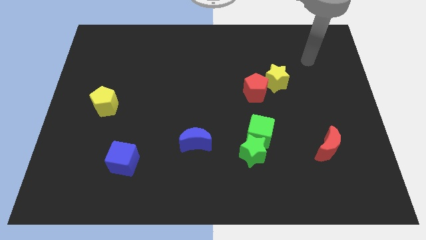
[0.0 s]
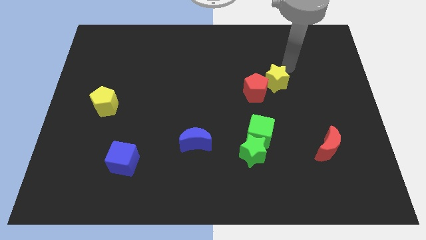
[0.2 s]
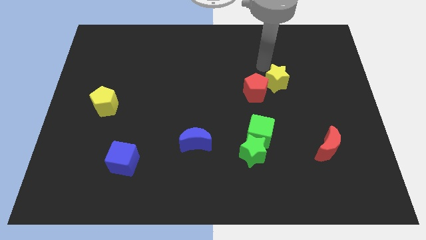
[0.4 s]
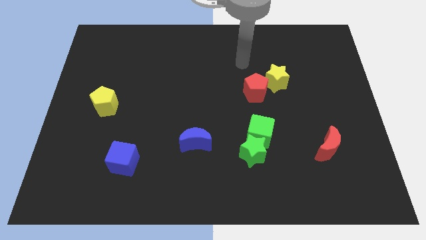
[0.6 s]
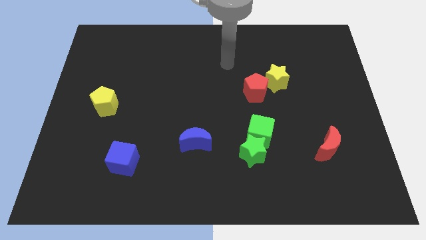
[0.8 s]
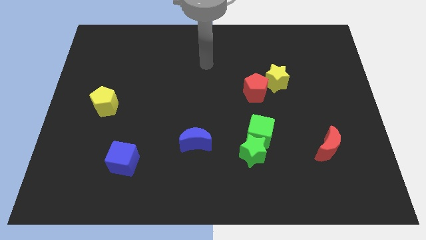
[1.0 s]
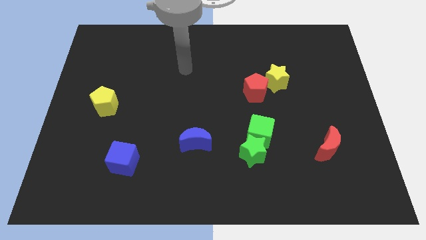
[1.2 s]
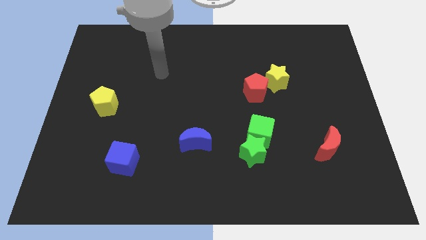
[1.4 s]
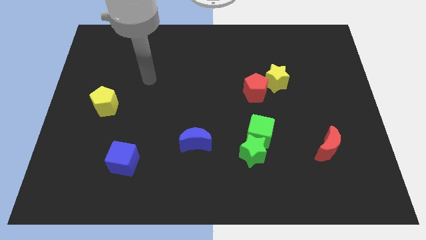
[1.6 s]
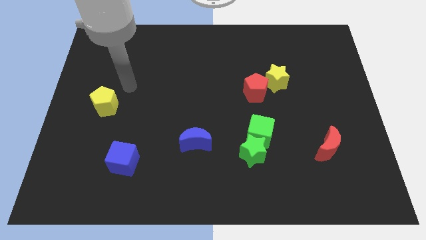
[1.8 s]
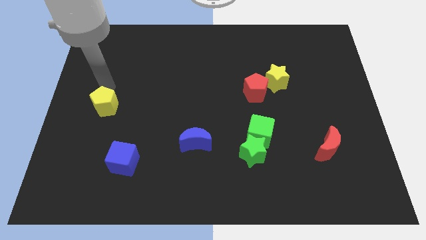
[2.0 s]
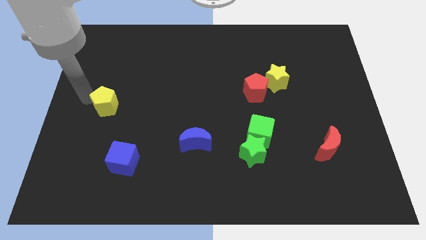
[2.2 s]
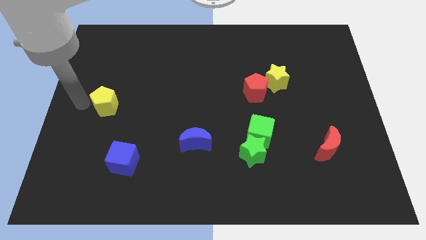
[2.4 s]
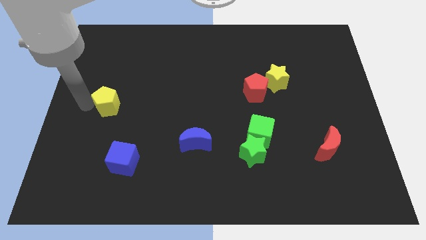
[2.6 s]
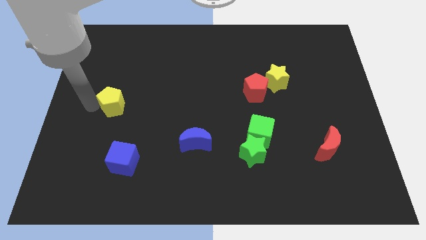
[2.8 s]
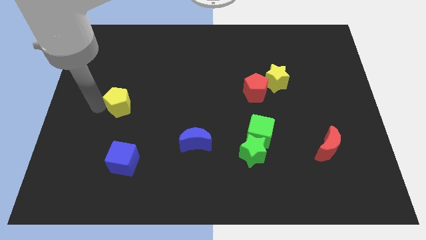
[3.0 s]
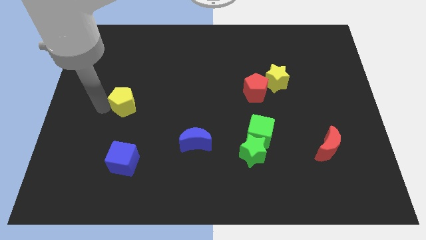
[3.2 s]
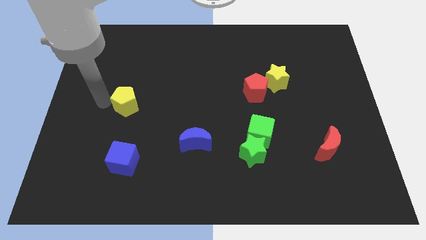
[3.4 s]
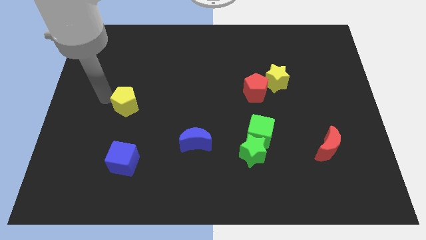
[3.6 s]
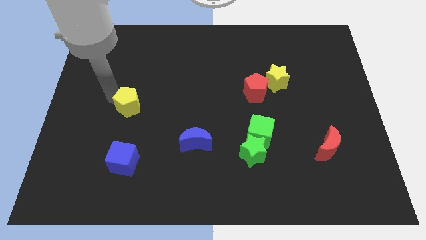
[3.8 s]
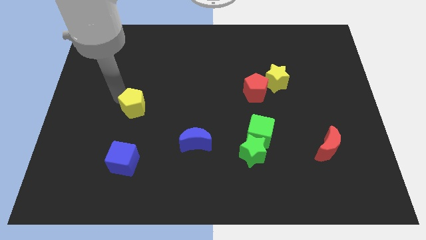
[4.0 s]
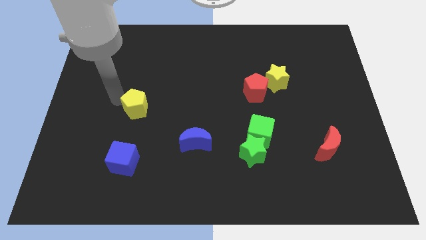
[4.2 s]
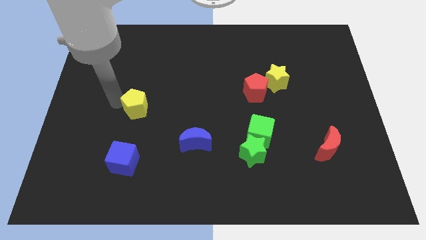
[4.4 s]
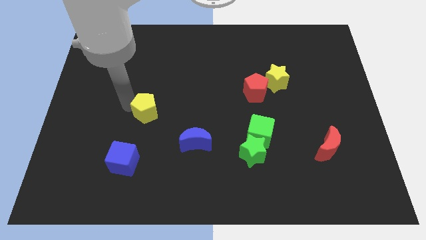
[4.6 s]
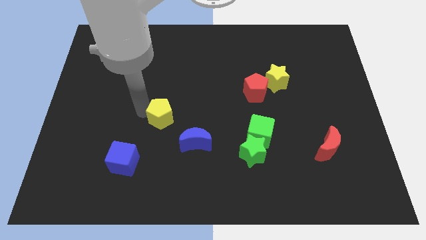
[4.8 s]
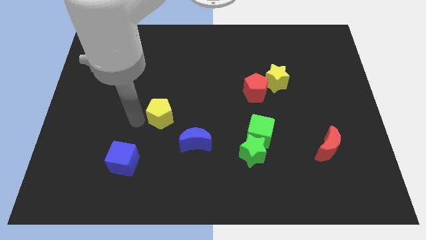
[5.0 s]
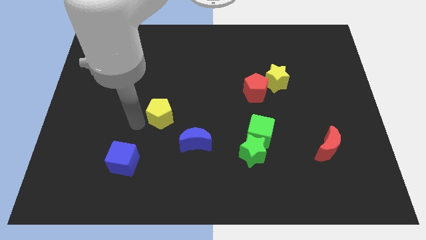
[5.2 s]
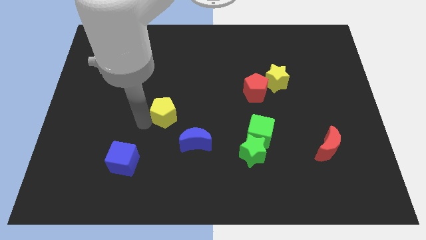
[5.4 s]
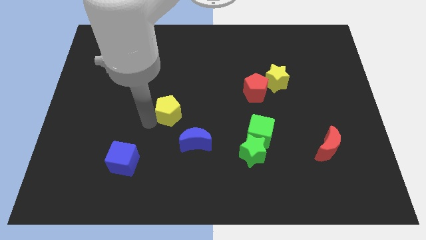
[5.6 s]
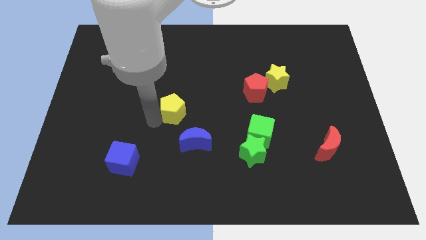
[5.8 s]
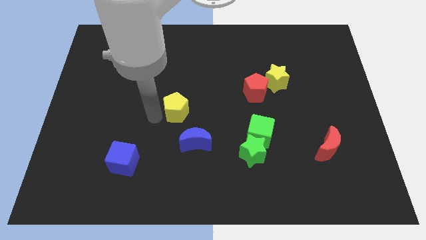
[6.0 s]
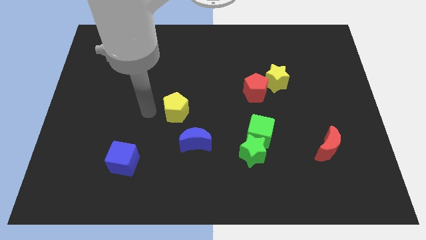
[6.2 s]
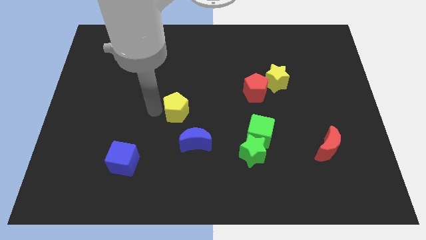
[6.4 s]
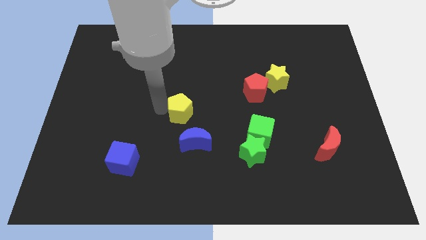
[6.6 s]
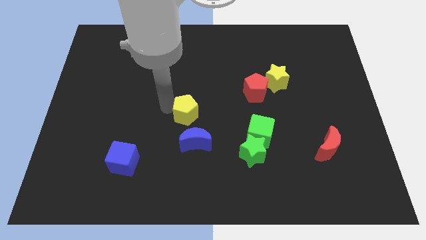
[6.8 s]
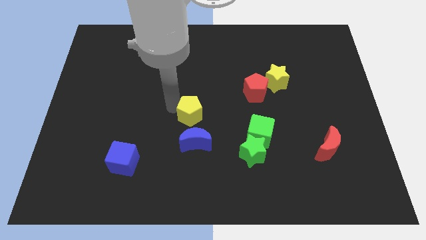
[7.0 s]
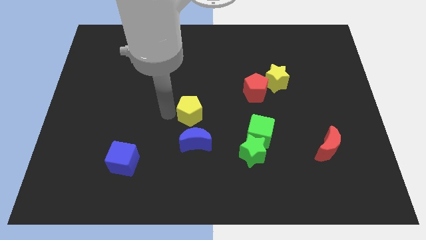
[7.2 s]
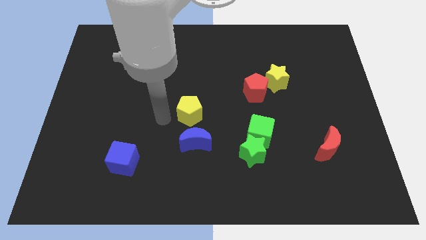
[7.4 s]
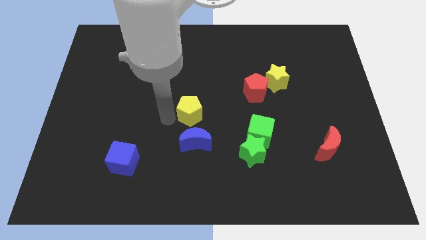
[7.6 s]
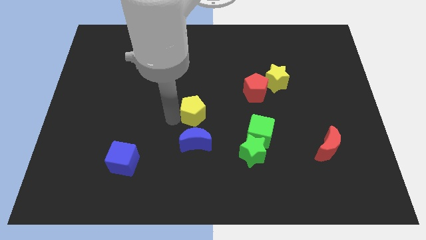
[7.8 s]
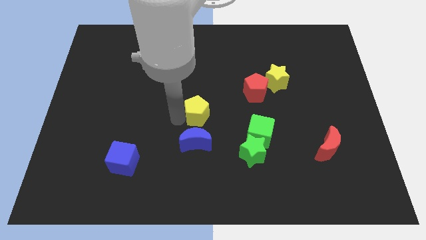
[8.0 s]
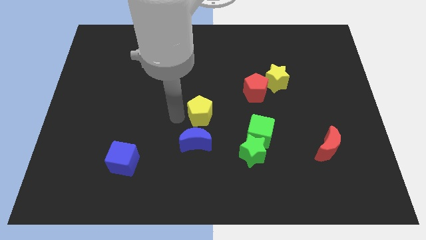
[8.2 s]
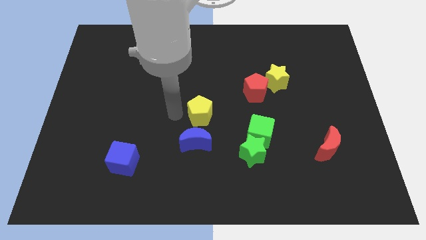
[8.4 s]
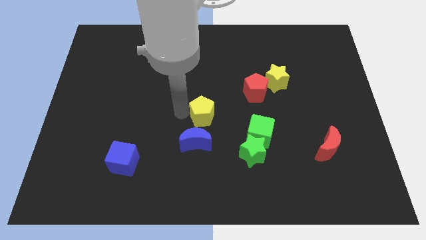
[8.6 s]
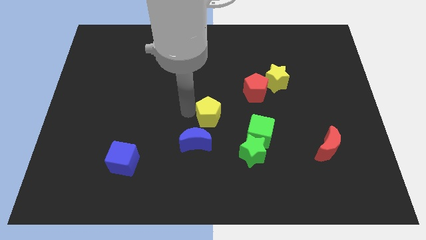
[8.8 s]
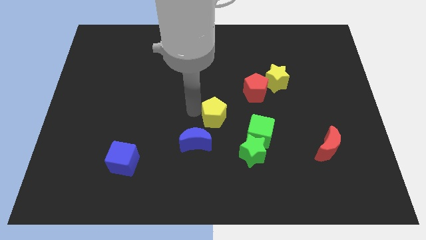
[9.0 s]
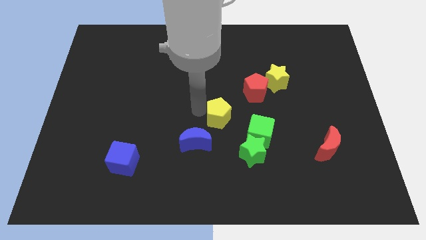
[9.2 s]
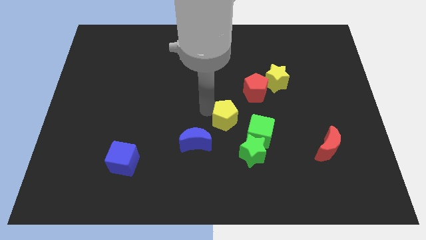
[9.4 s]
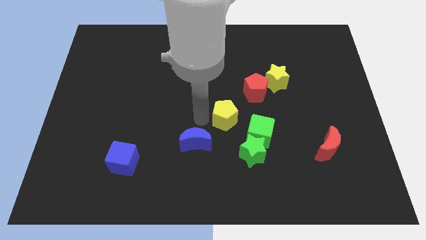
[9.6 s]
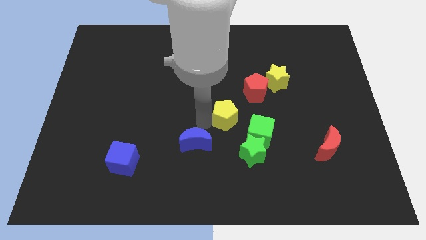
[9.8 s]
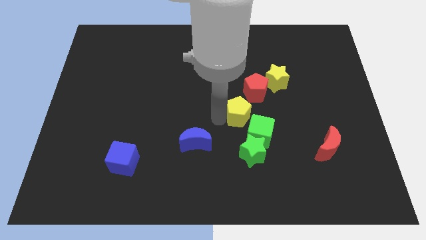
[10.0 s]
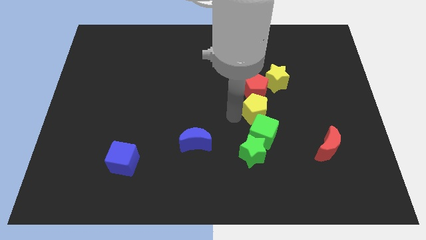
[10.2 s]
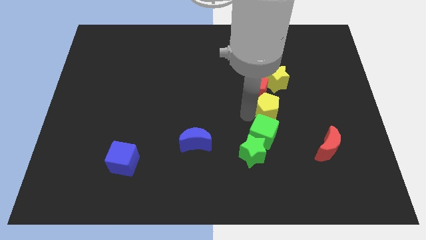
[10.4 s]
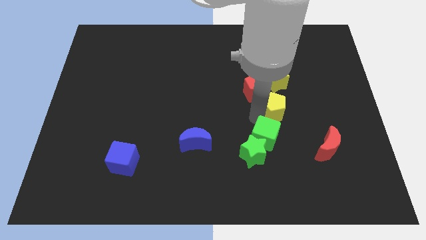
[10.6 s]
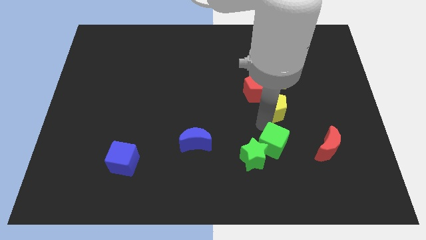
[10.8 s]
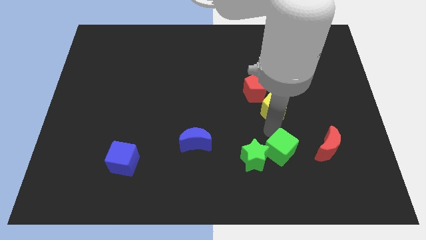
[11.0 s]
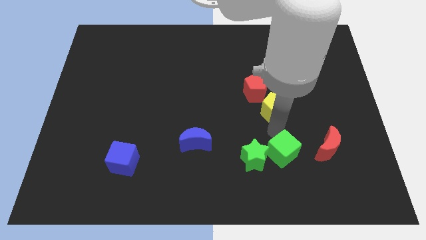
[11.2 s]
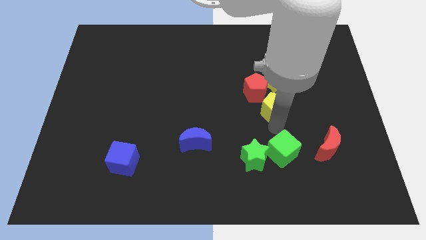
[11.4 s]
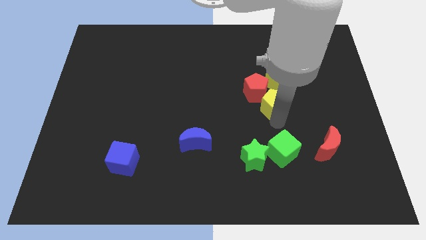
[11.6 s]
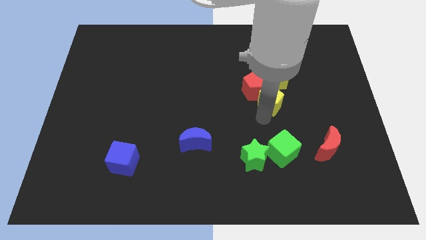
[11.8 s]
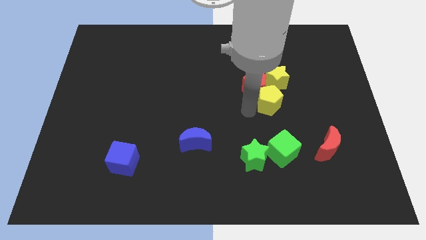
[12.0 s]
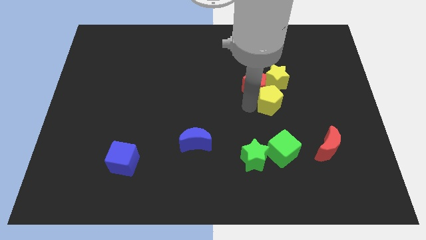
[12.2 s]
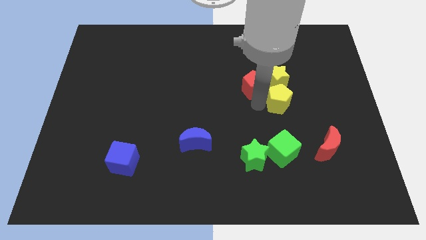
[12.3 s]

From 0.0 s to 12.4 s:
put the yellow pentagon to the bottom right of the yellow star

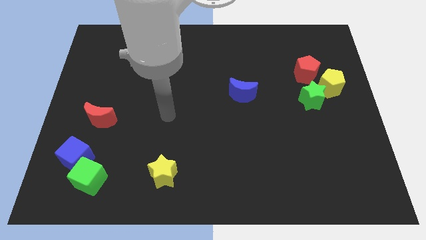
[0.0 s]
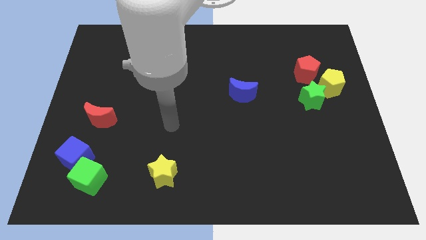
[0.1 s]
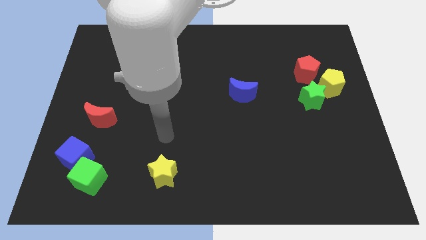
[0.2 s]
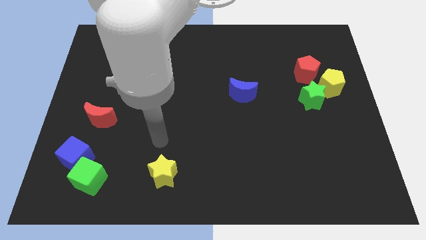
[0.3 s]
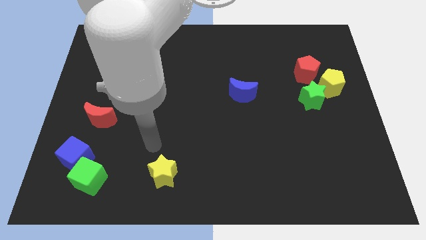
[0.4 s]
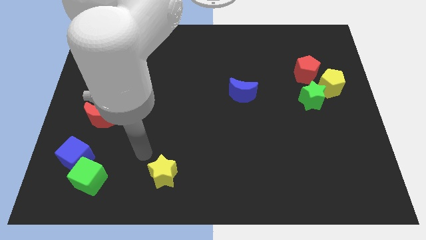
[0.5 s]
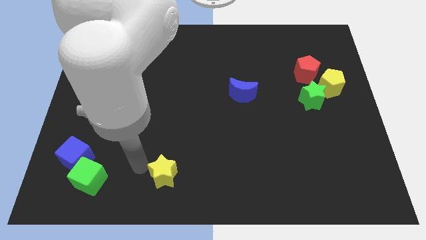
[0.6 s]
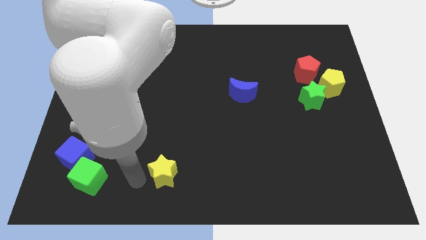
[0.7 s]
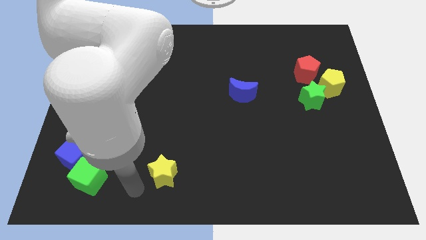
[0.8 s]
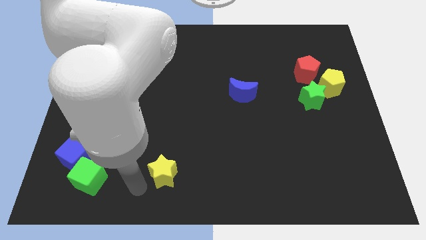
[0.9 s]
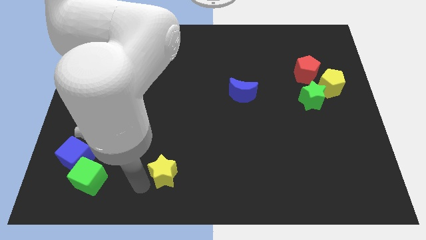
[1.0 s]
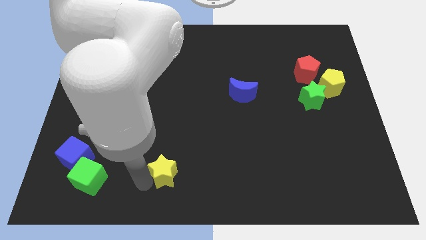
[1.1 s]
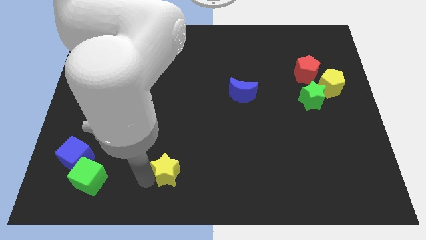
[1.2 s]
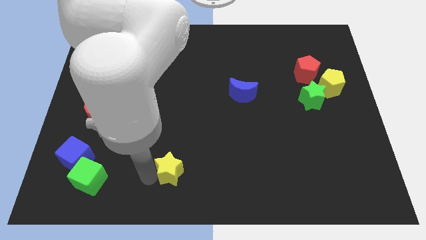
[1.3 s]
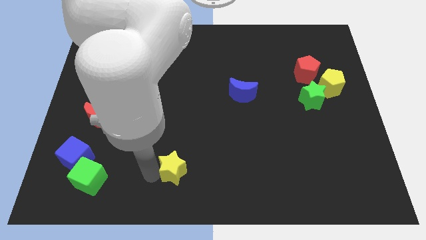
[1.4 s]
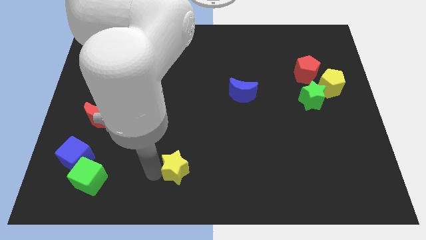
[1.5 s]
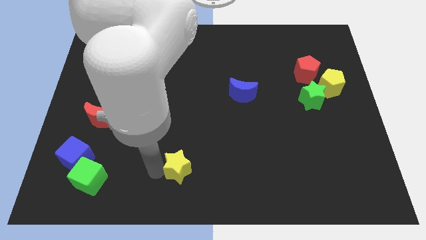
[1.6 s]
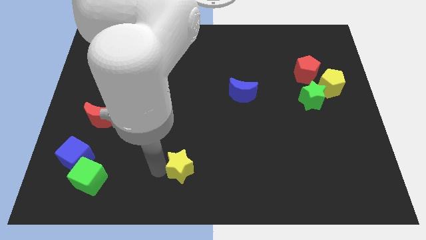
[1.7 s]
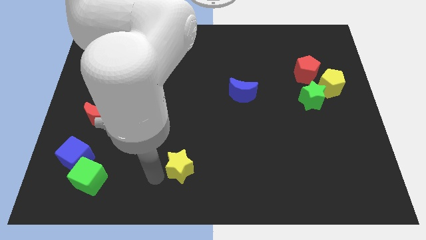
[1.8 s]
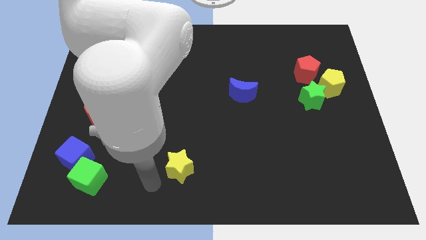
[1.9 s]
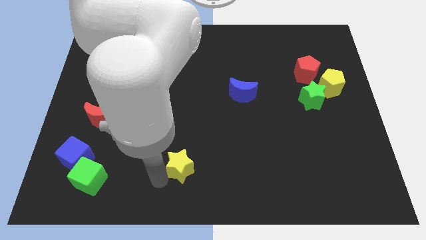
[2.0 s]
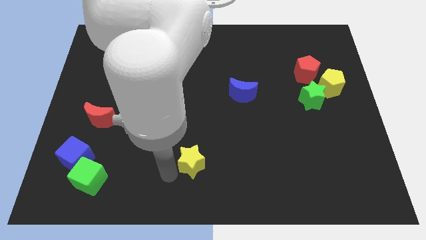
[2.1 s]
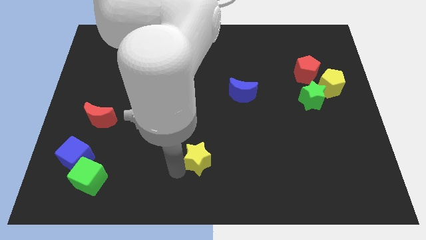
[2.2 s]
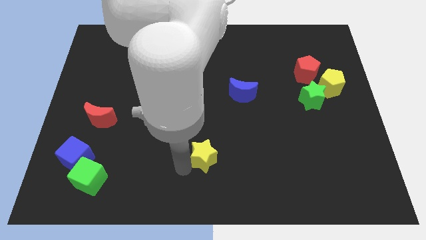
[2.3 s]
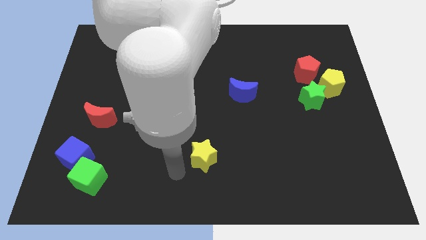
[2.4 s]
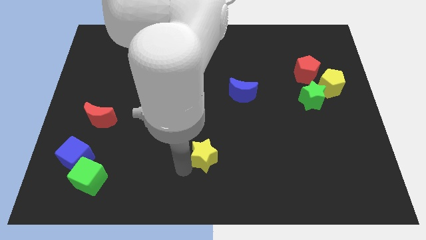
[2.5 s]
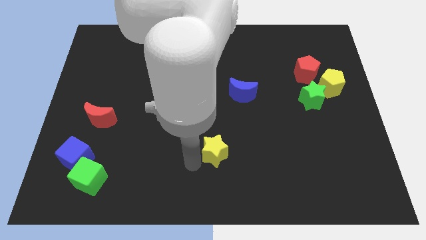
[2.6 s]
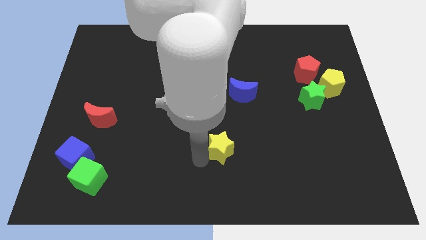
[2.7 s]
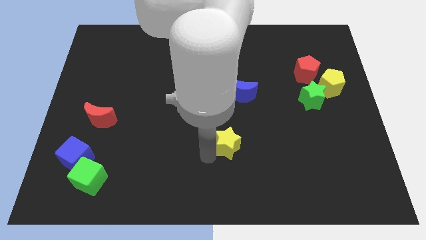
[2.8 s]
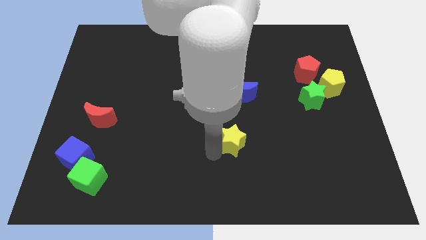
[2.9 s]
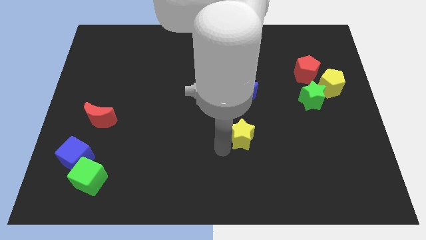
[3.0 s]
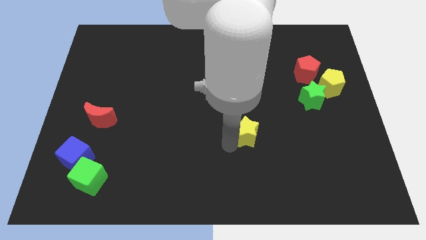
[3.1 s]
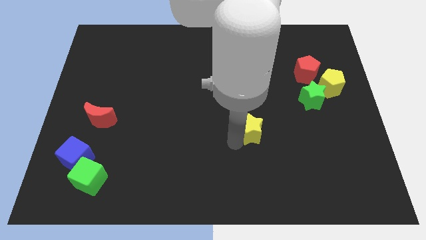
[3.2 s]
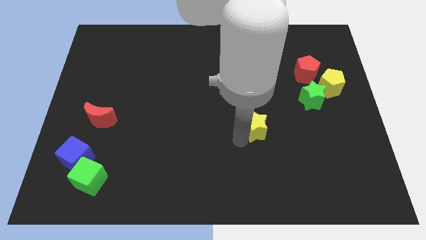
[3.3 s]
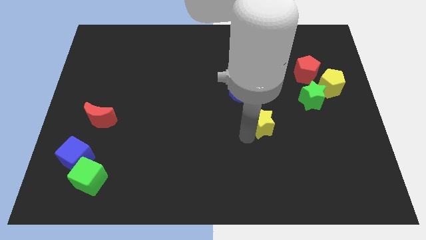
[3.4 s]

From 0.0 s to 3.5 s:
move the yellow star to the bottom right side of the blue moon
